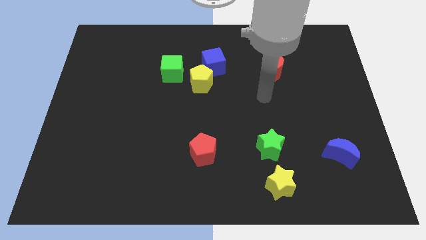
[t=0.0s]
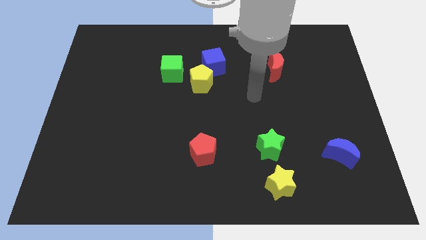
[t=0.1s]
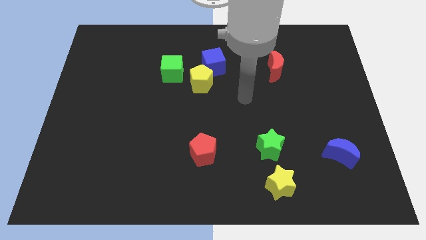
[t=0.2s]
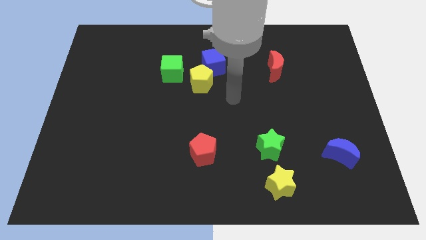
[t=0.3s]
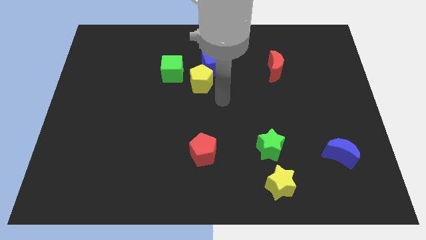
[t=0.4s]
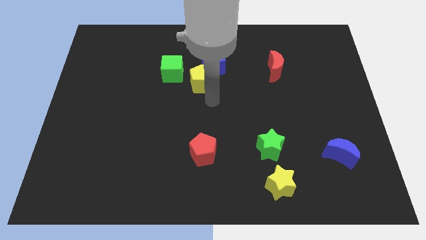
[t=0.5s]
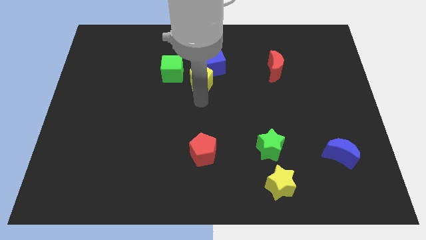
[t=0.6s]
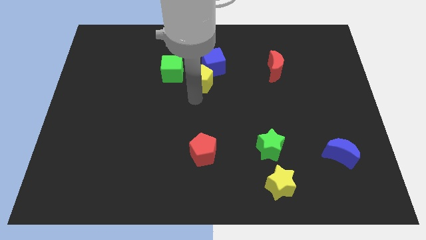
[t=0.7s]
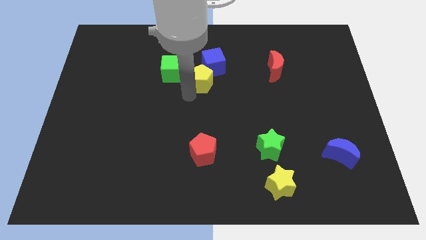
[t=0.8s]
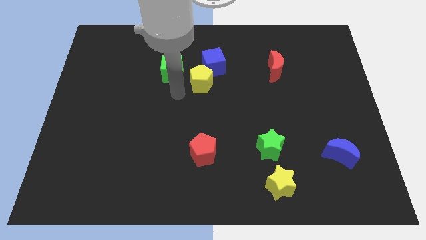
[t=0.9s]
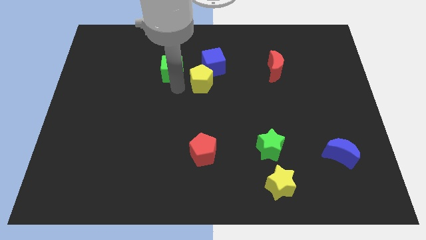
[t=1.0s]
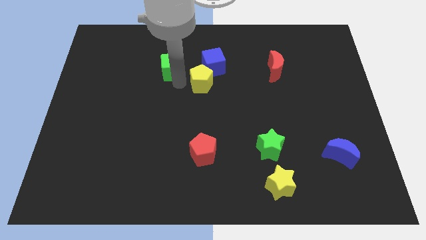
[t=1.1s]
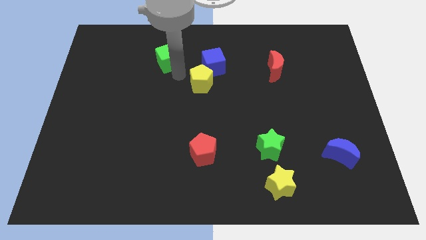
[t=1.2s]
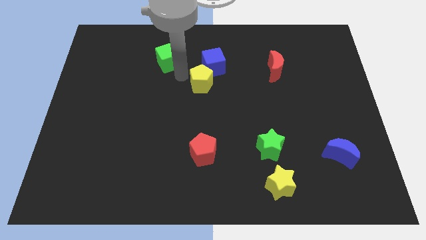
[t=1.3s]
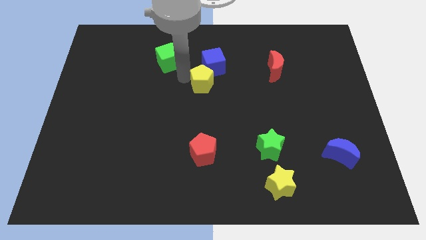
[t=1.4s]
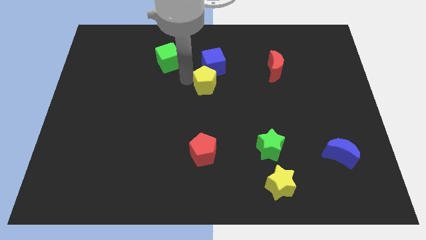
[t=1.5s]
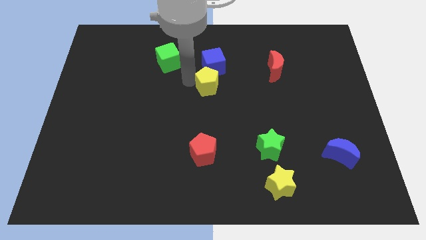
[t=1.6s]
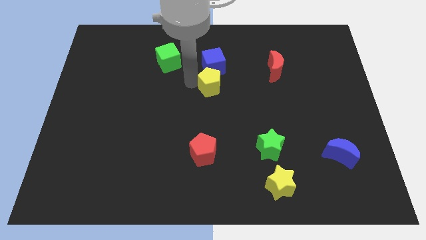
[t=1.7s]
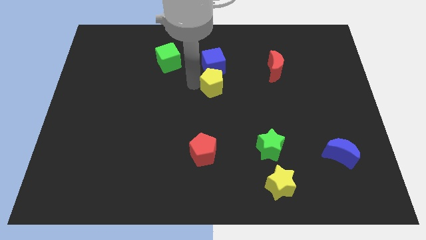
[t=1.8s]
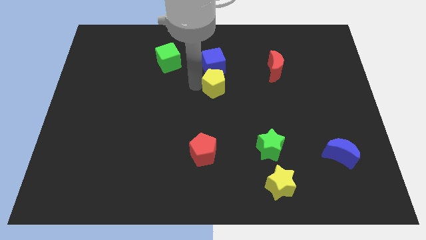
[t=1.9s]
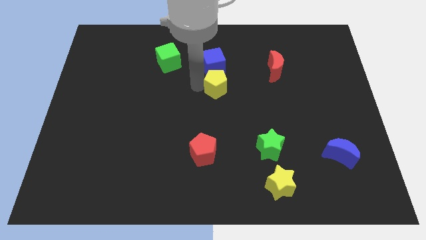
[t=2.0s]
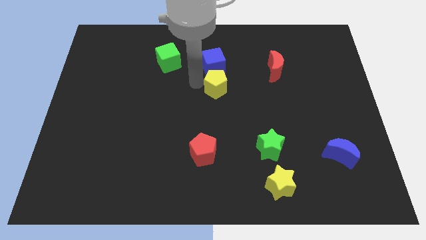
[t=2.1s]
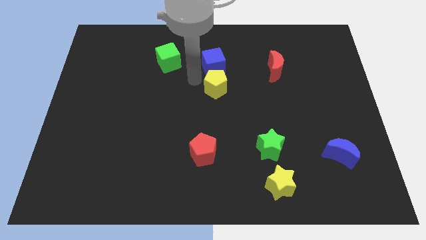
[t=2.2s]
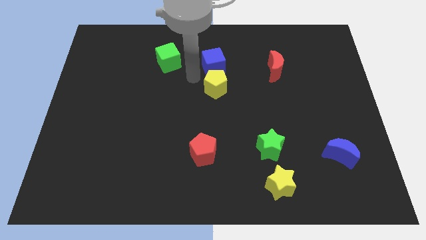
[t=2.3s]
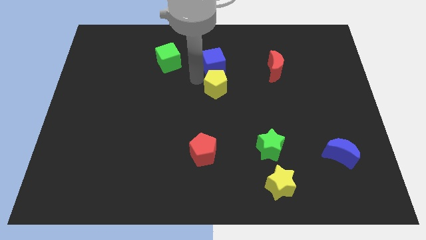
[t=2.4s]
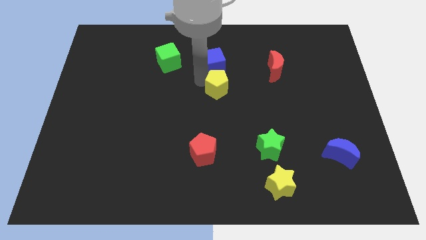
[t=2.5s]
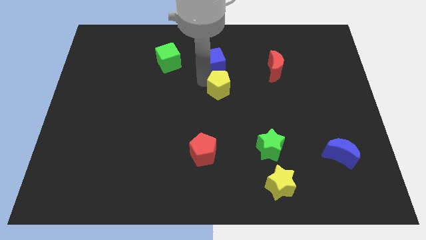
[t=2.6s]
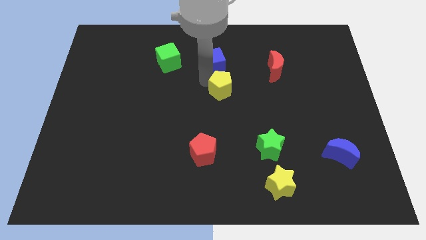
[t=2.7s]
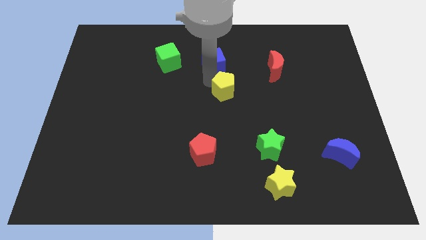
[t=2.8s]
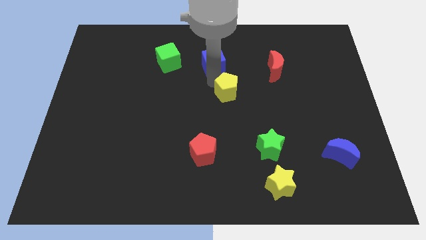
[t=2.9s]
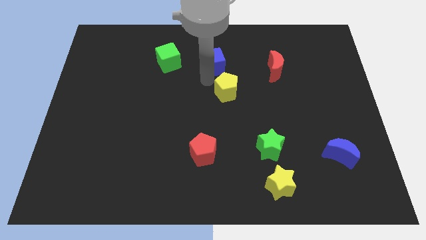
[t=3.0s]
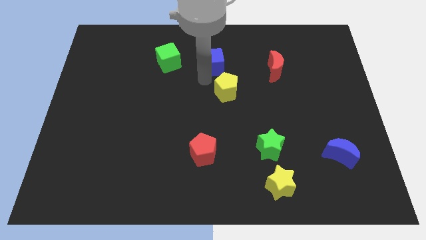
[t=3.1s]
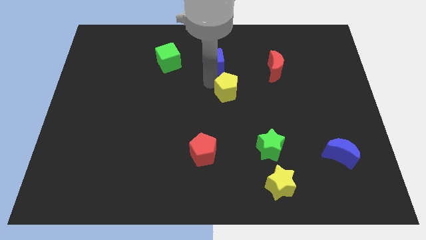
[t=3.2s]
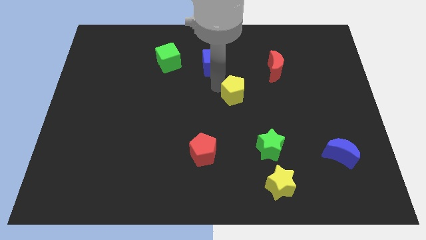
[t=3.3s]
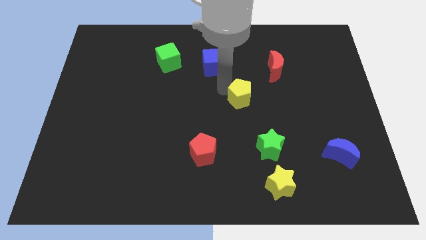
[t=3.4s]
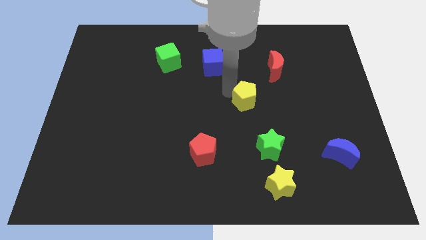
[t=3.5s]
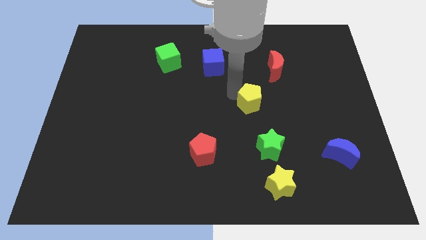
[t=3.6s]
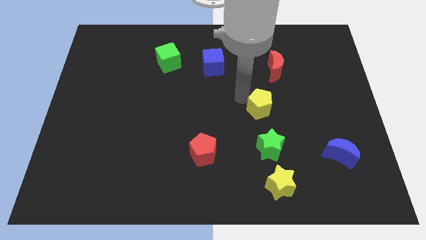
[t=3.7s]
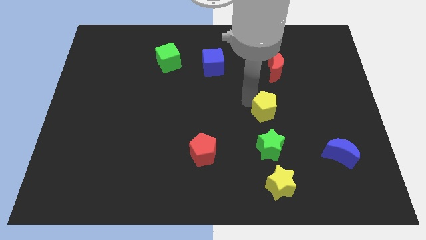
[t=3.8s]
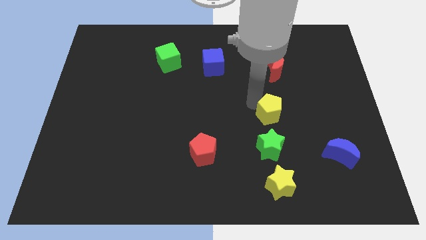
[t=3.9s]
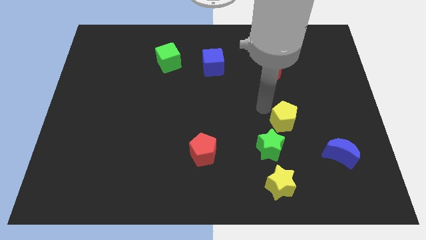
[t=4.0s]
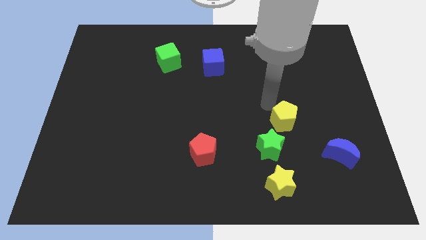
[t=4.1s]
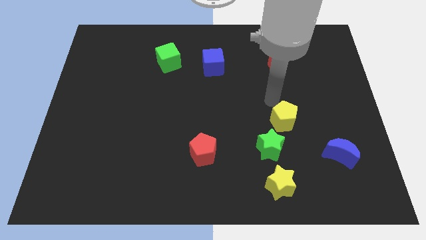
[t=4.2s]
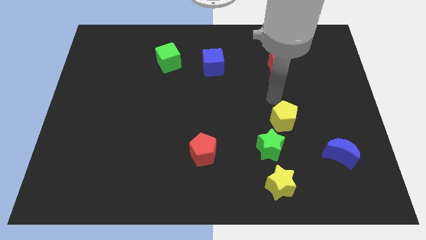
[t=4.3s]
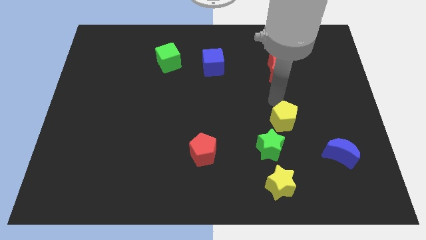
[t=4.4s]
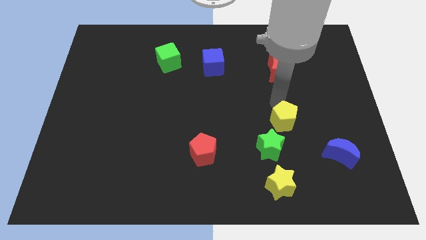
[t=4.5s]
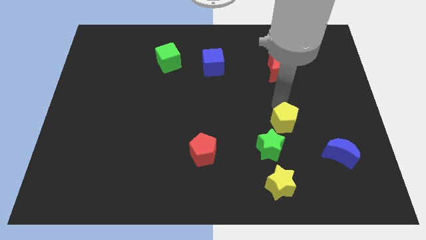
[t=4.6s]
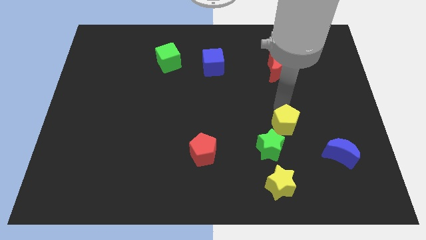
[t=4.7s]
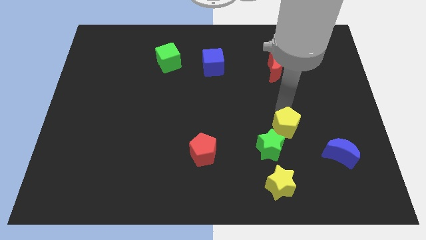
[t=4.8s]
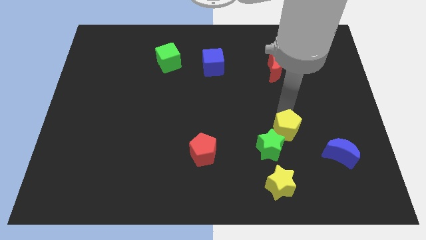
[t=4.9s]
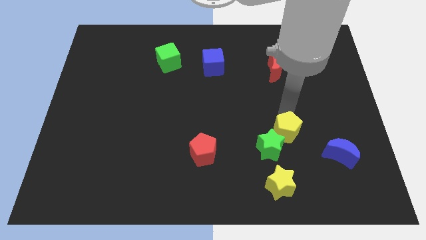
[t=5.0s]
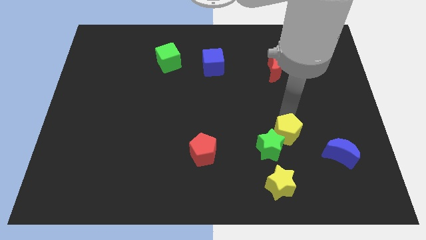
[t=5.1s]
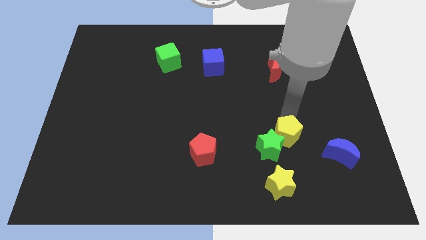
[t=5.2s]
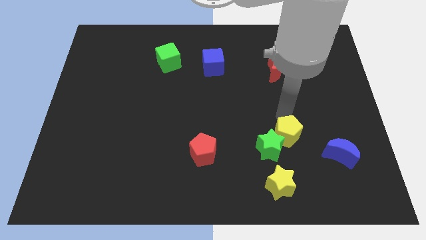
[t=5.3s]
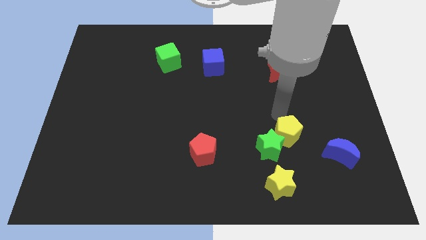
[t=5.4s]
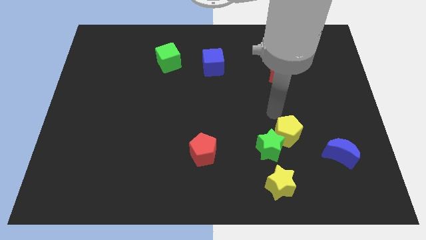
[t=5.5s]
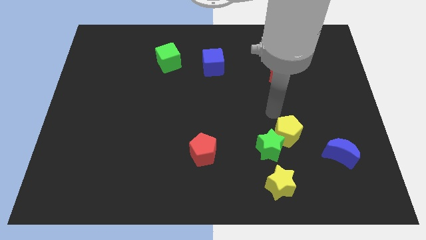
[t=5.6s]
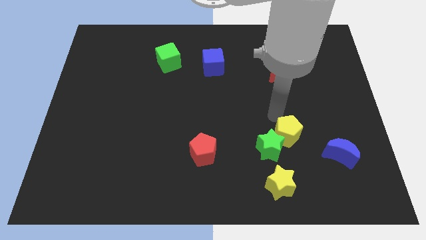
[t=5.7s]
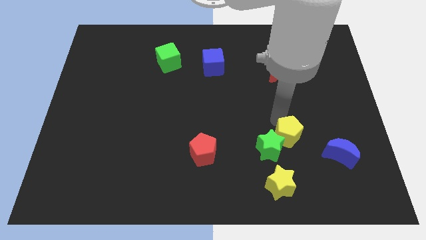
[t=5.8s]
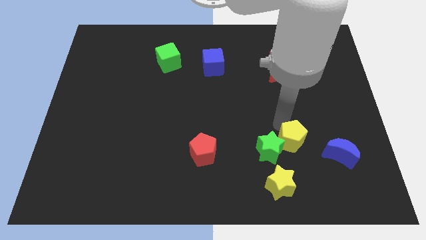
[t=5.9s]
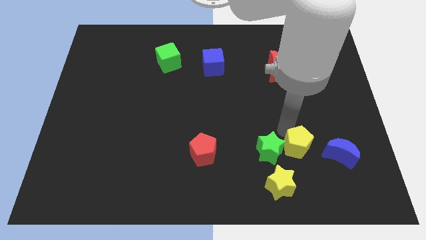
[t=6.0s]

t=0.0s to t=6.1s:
push the yellow pentagon to the top right side of the yellow star
